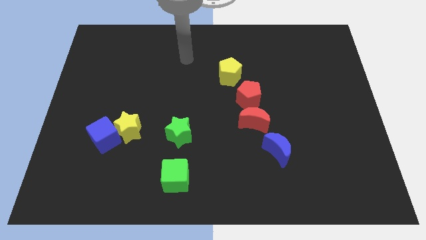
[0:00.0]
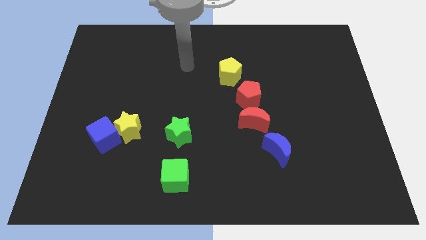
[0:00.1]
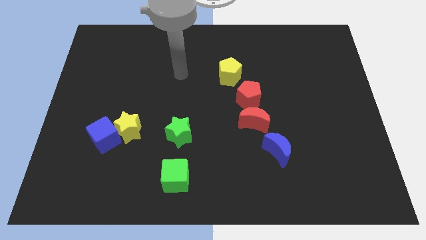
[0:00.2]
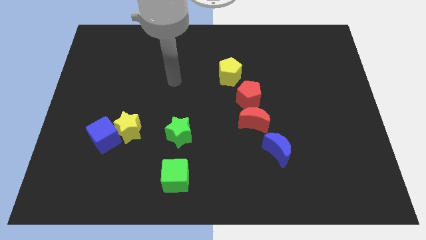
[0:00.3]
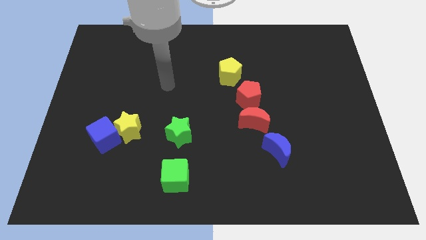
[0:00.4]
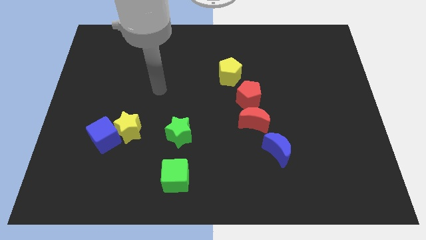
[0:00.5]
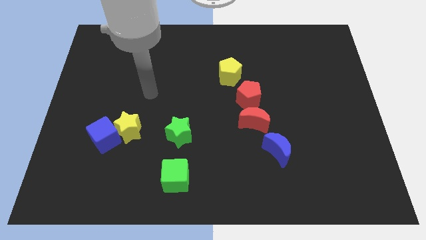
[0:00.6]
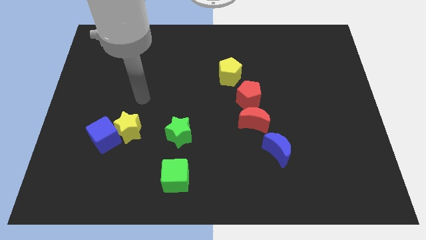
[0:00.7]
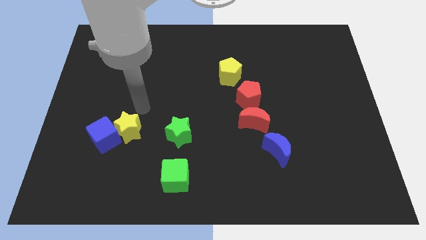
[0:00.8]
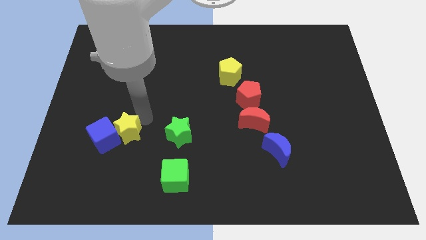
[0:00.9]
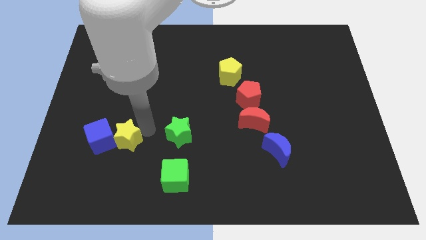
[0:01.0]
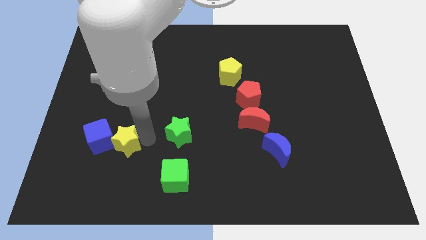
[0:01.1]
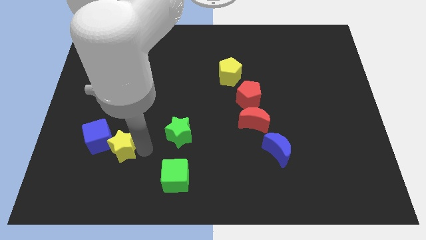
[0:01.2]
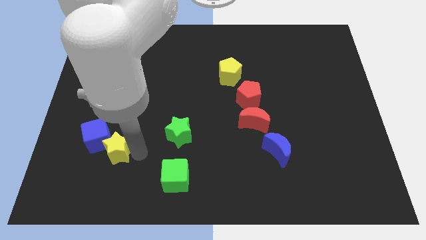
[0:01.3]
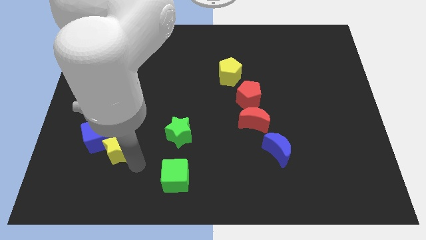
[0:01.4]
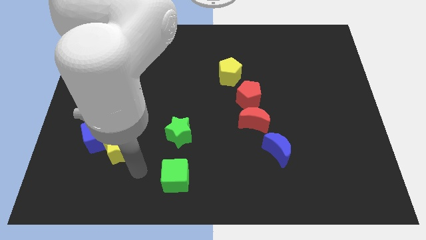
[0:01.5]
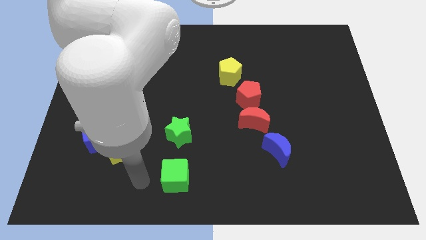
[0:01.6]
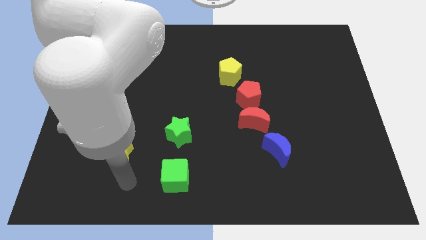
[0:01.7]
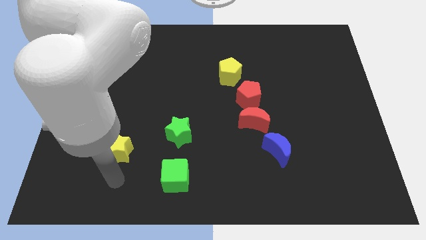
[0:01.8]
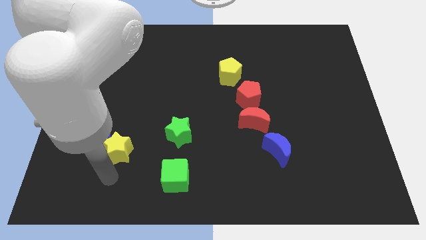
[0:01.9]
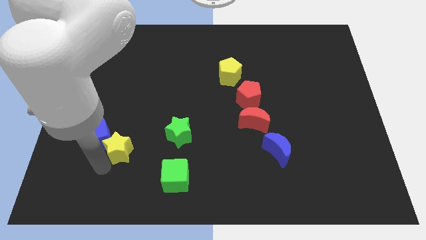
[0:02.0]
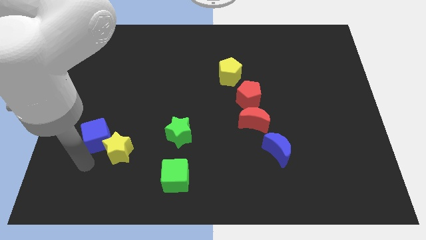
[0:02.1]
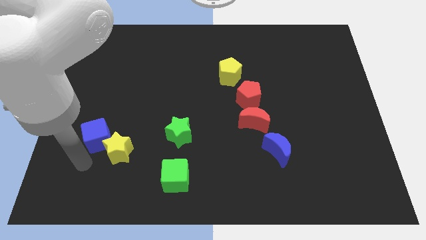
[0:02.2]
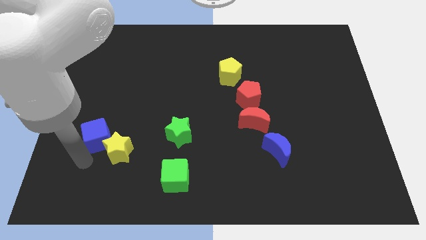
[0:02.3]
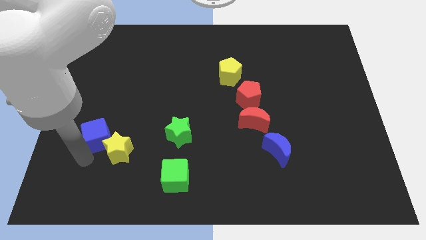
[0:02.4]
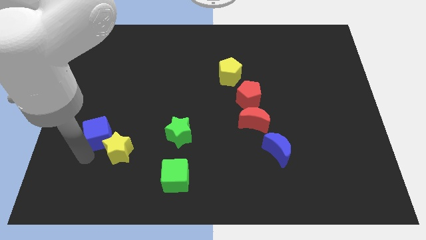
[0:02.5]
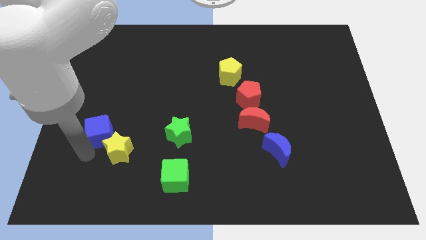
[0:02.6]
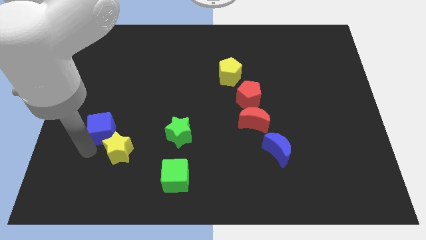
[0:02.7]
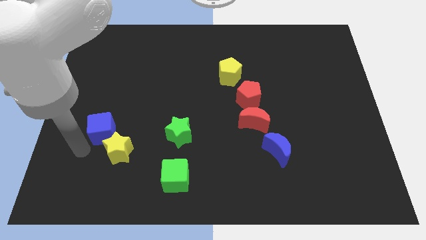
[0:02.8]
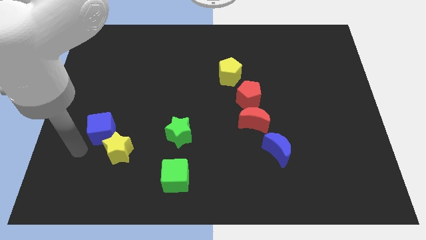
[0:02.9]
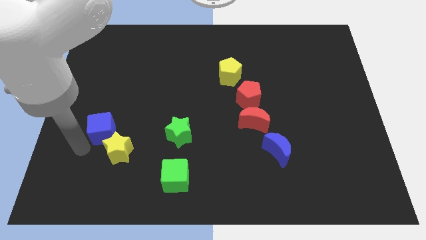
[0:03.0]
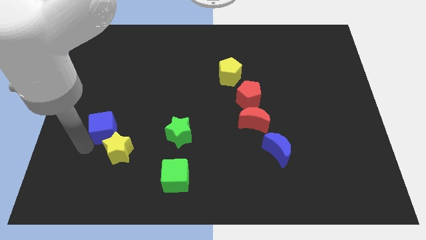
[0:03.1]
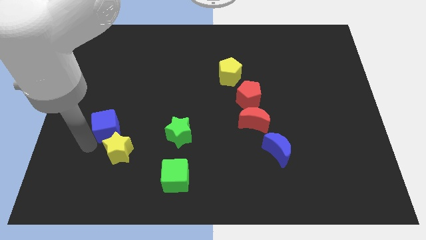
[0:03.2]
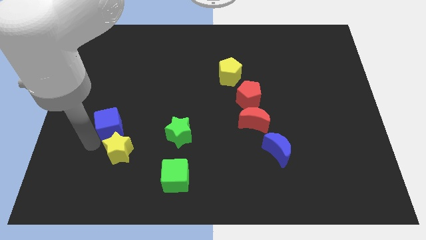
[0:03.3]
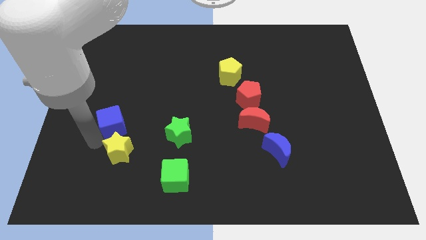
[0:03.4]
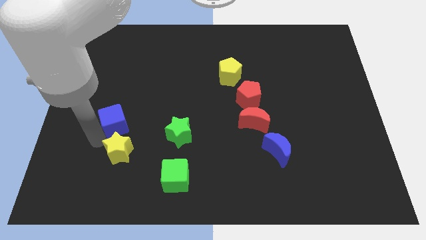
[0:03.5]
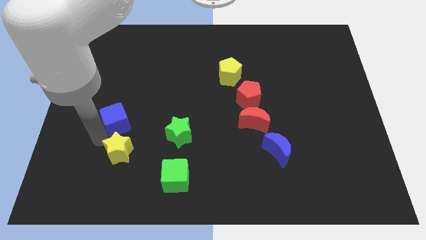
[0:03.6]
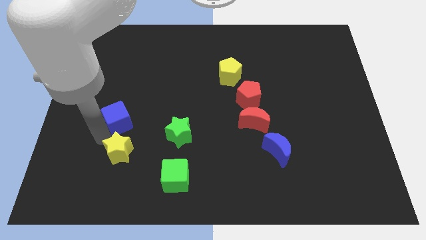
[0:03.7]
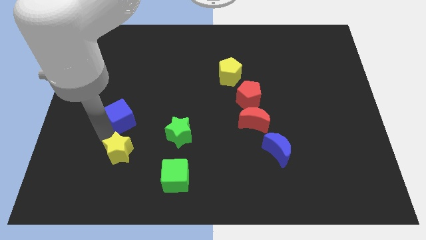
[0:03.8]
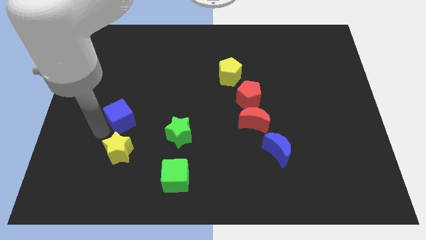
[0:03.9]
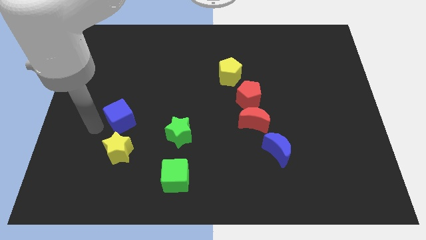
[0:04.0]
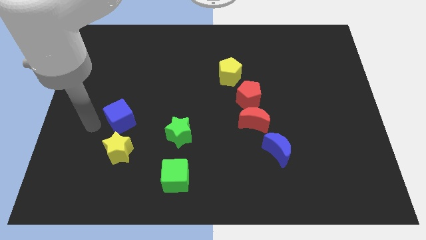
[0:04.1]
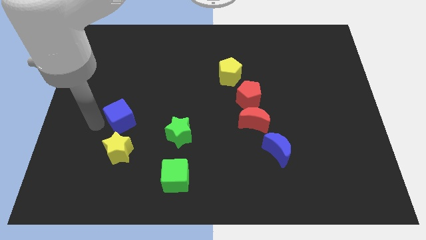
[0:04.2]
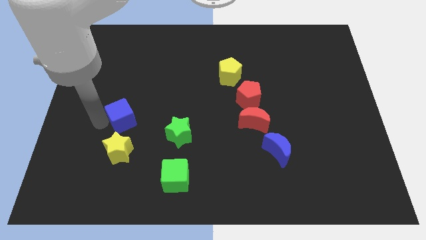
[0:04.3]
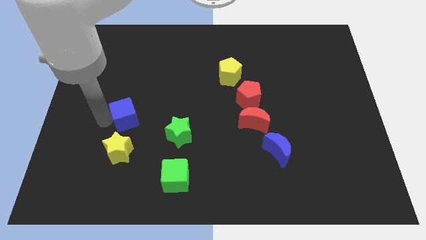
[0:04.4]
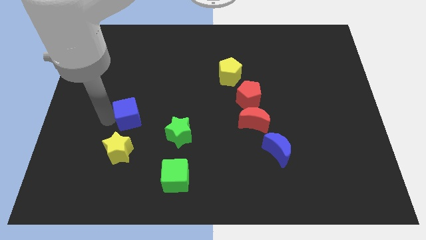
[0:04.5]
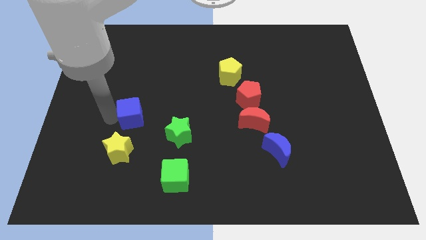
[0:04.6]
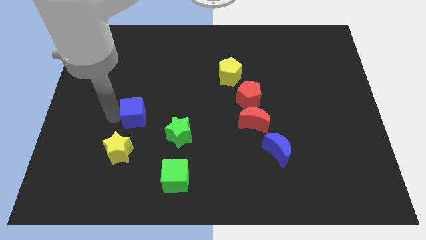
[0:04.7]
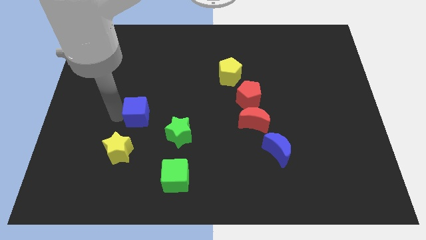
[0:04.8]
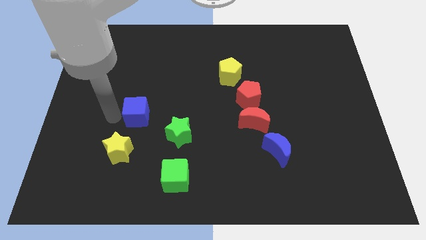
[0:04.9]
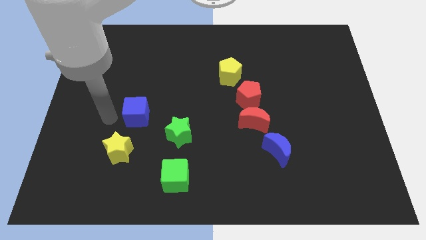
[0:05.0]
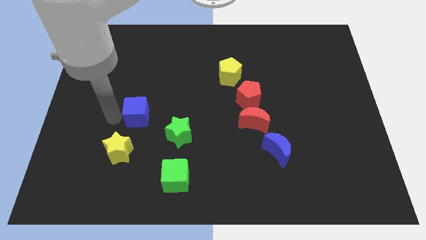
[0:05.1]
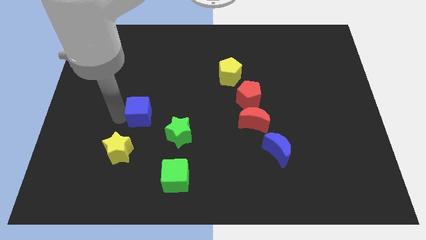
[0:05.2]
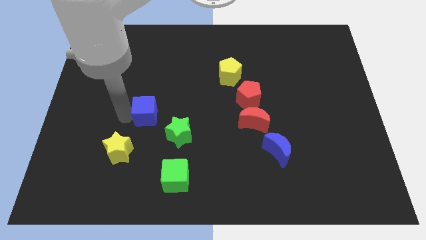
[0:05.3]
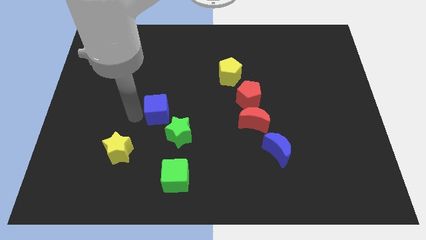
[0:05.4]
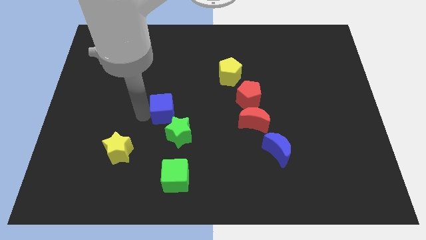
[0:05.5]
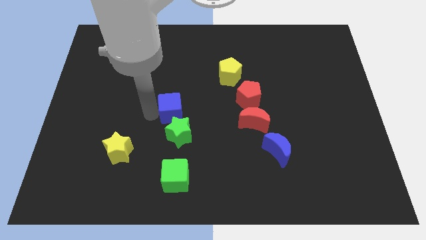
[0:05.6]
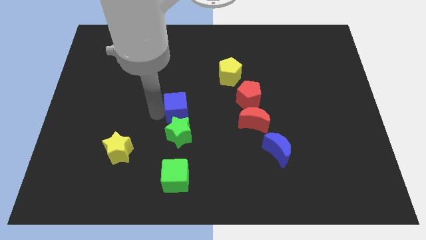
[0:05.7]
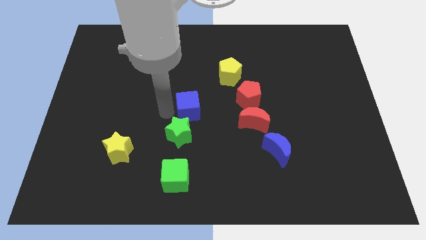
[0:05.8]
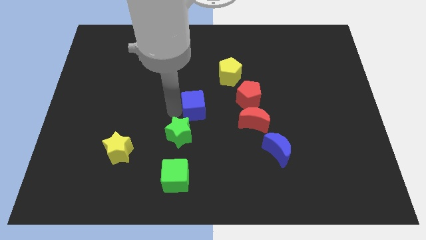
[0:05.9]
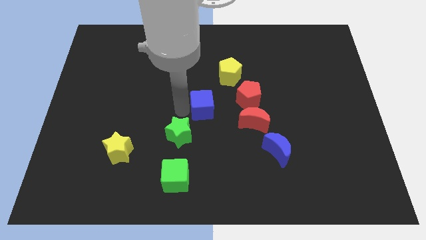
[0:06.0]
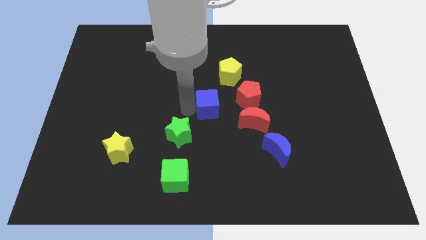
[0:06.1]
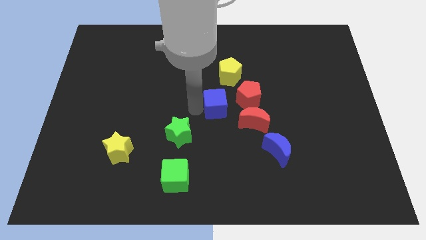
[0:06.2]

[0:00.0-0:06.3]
put the blue cube to the top left side of the red moon
